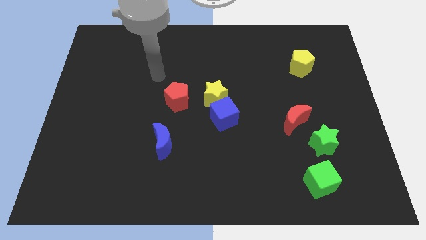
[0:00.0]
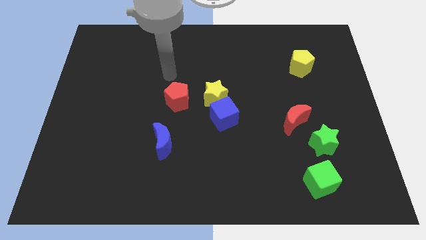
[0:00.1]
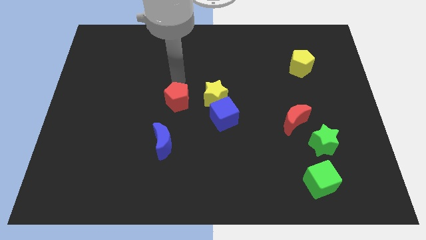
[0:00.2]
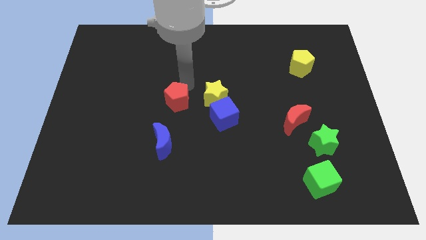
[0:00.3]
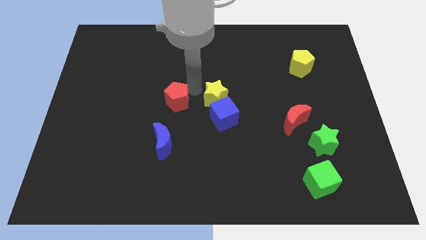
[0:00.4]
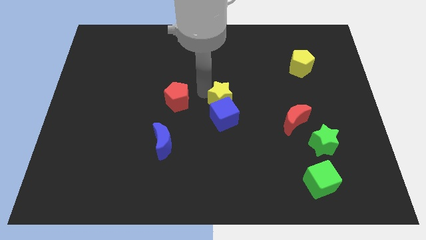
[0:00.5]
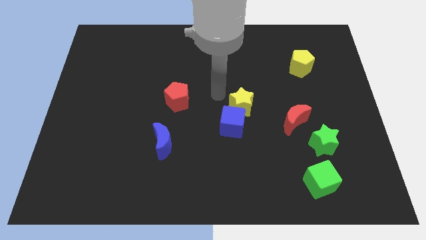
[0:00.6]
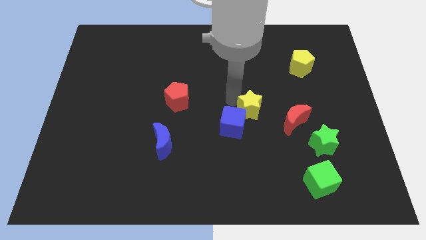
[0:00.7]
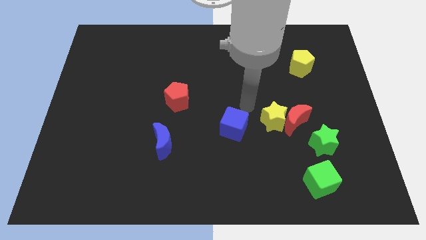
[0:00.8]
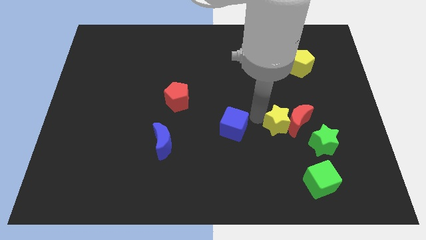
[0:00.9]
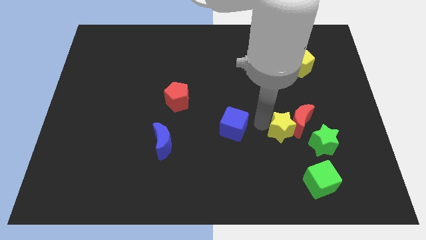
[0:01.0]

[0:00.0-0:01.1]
pull the blue cube apart from the yellow star

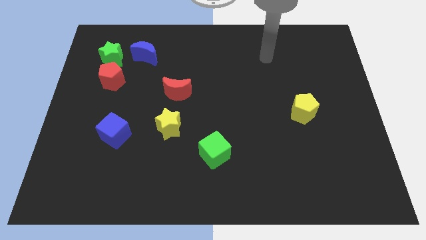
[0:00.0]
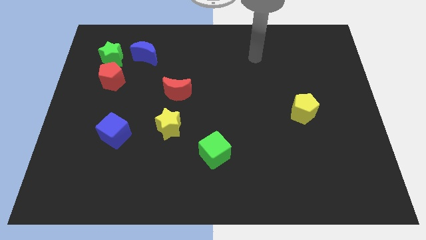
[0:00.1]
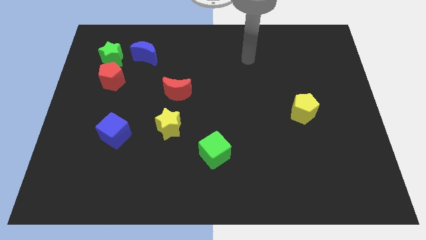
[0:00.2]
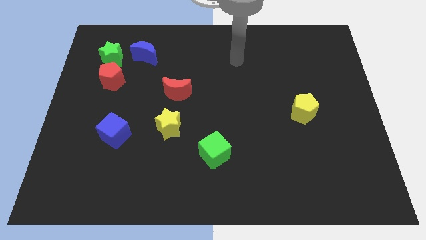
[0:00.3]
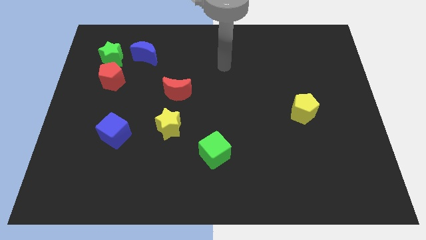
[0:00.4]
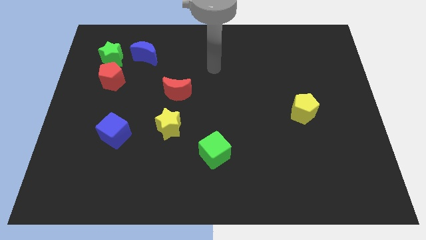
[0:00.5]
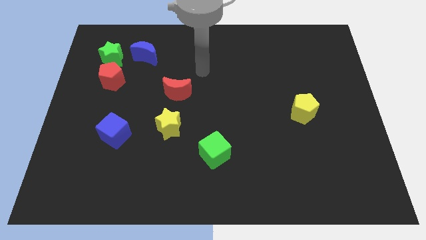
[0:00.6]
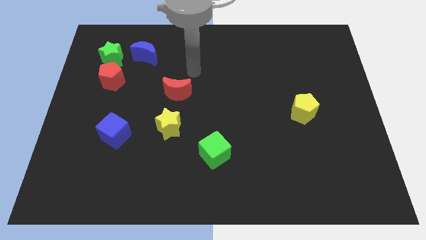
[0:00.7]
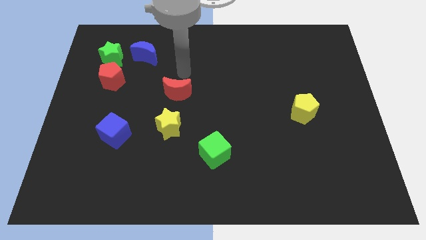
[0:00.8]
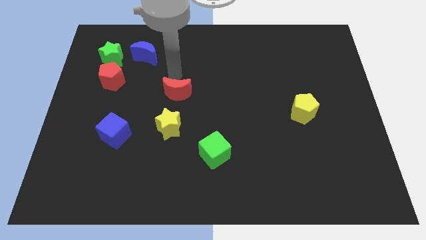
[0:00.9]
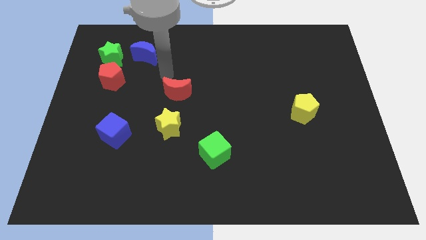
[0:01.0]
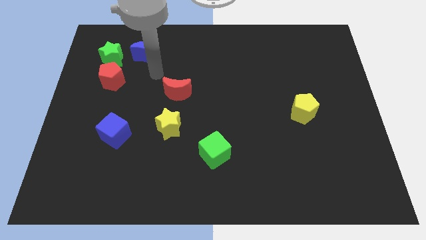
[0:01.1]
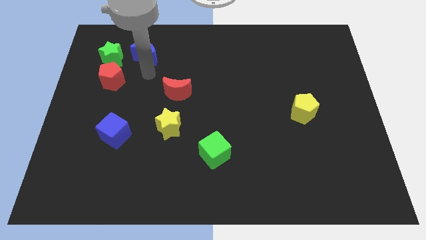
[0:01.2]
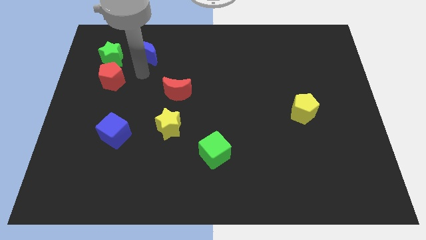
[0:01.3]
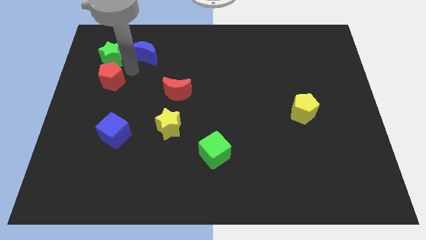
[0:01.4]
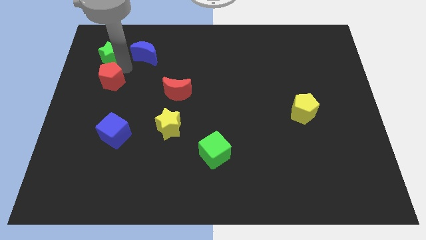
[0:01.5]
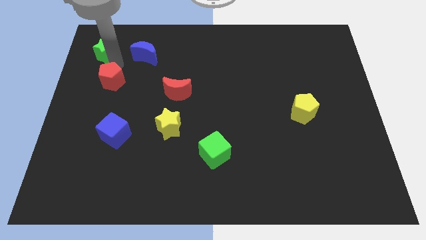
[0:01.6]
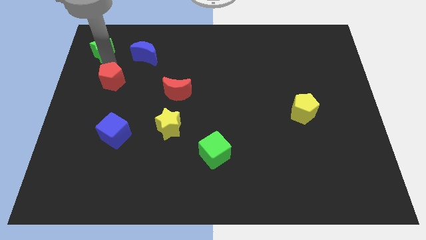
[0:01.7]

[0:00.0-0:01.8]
move the red pentagon away from the green star

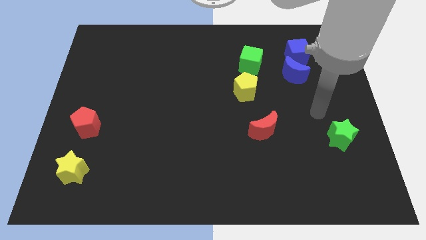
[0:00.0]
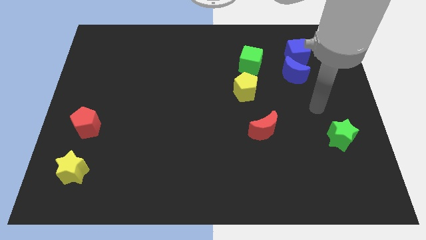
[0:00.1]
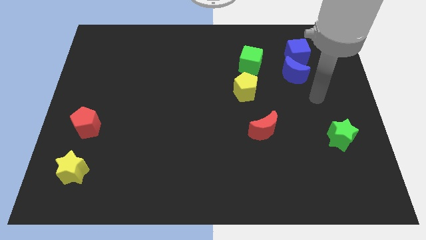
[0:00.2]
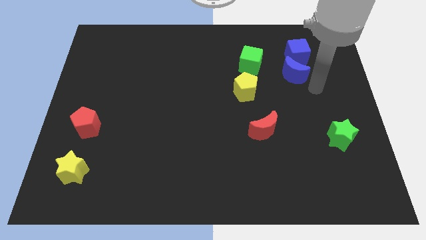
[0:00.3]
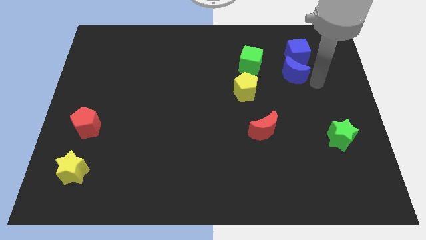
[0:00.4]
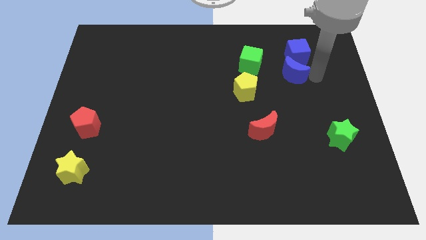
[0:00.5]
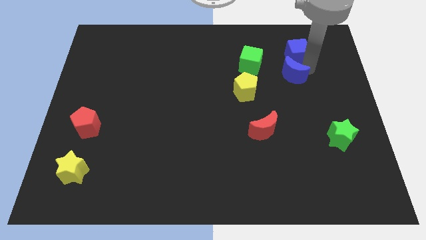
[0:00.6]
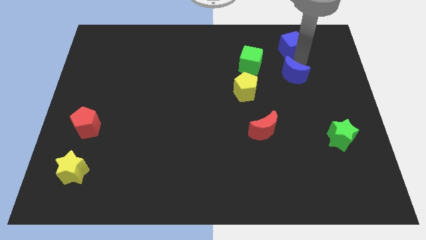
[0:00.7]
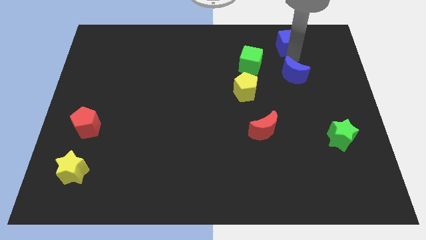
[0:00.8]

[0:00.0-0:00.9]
separate the blue moon from the blue cube

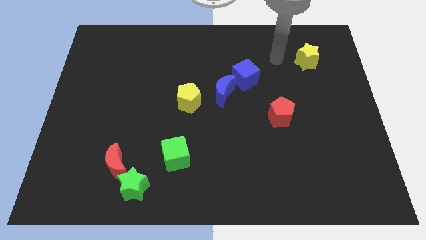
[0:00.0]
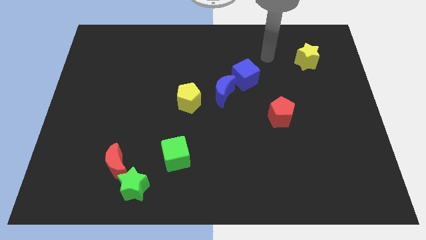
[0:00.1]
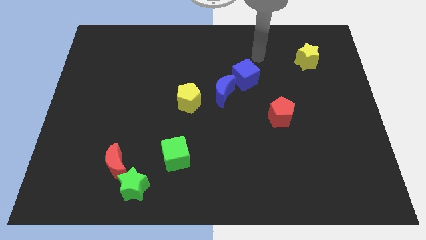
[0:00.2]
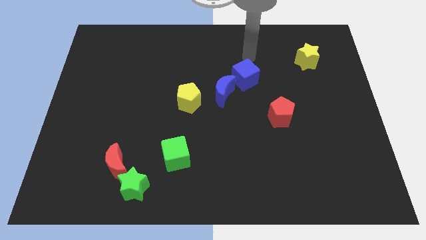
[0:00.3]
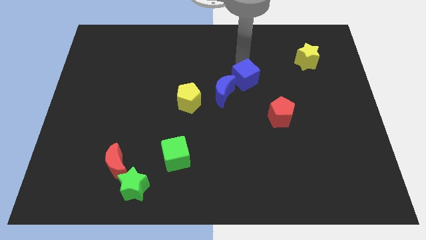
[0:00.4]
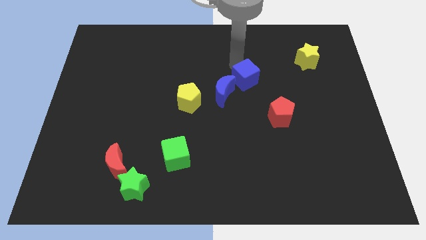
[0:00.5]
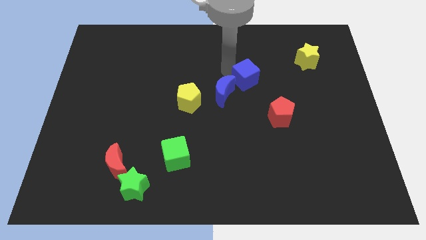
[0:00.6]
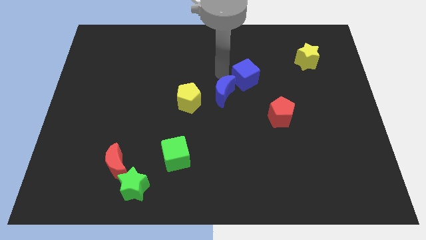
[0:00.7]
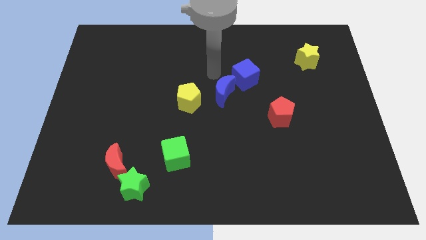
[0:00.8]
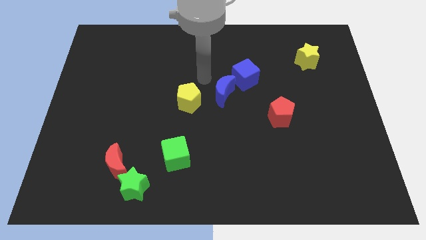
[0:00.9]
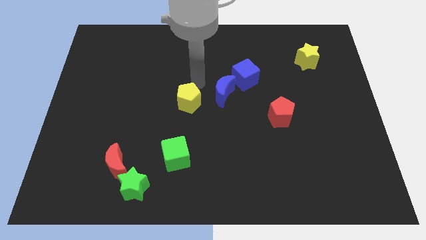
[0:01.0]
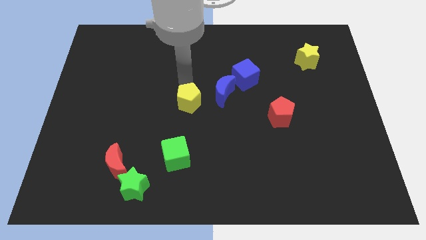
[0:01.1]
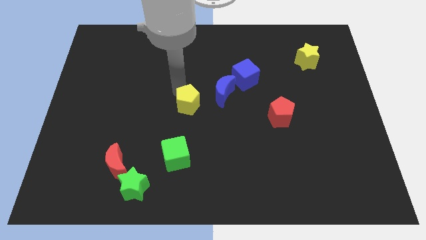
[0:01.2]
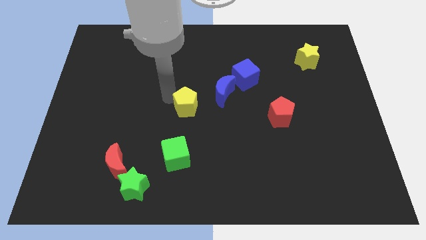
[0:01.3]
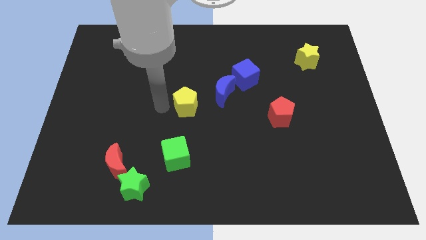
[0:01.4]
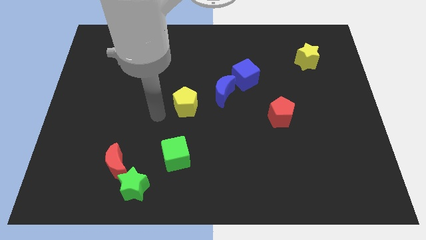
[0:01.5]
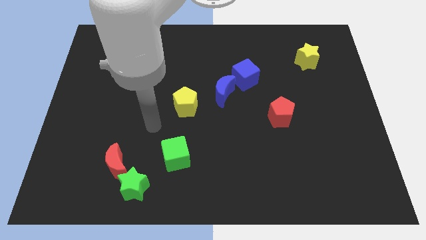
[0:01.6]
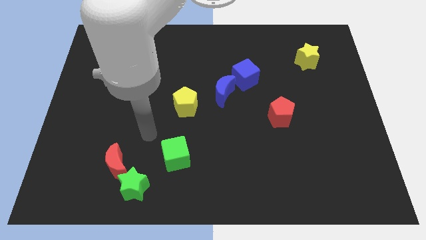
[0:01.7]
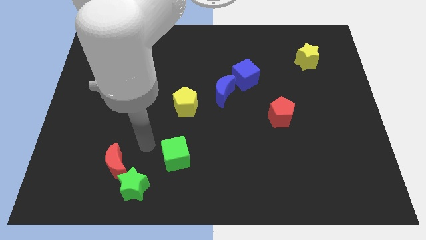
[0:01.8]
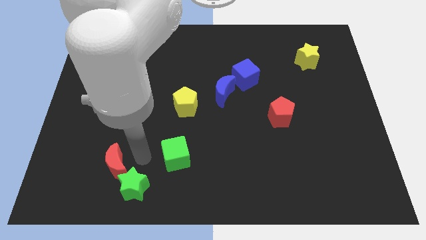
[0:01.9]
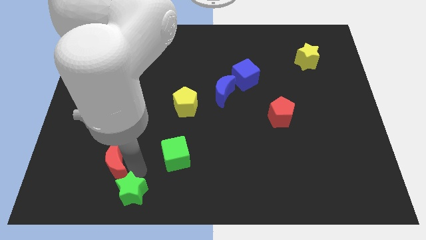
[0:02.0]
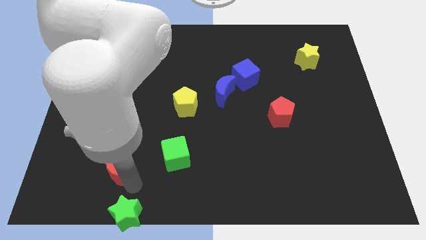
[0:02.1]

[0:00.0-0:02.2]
separate the red moon from the green star

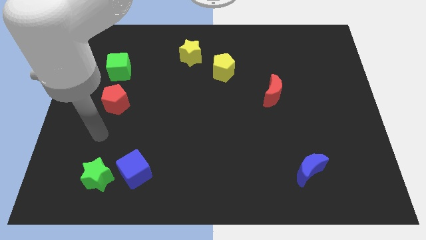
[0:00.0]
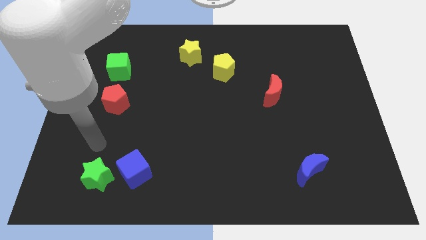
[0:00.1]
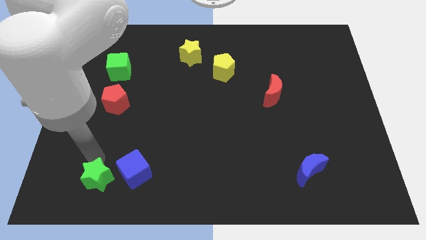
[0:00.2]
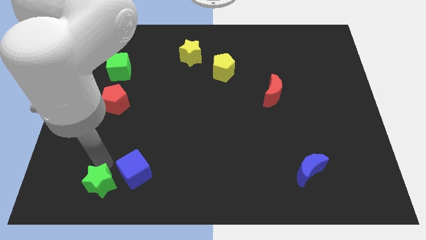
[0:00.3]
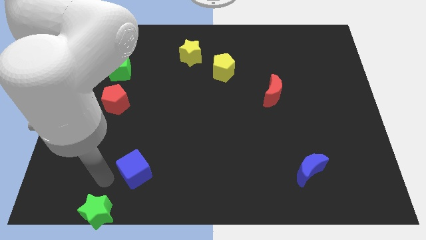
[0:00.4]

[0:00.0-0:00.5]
move the blue cube away from the green star

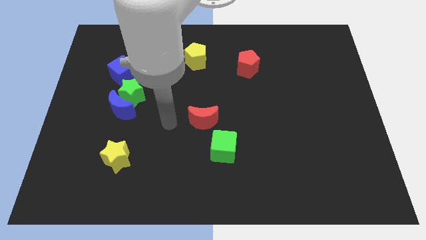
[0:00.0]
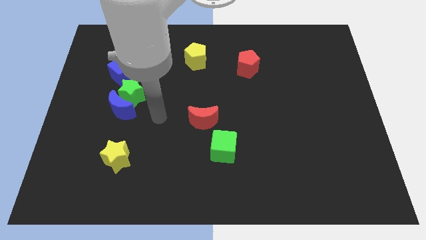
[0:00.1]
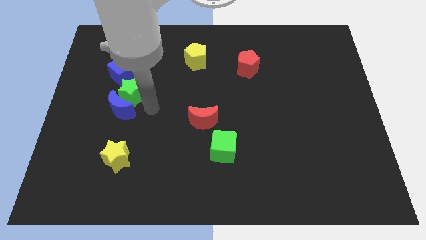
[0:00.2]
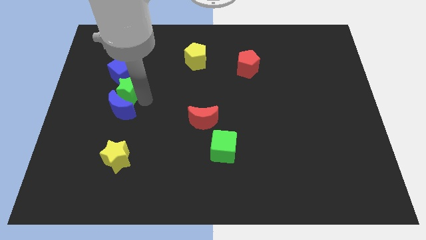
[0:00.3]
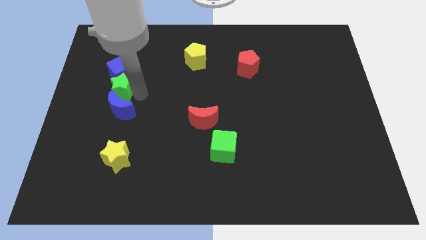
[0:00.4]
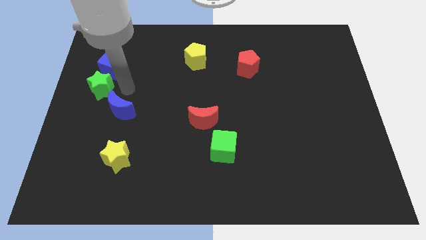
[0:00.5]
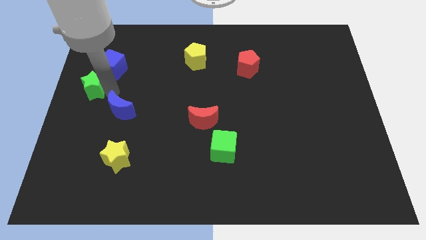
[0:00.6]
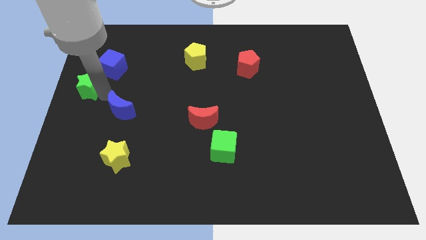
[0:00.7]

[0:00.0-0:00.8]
separate the blue moon from the green star

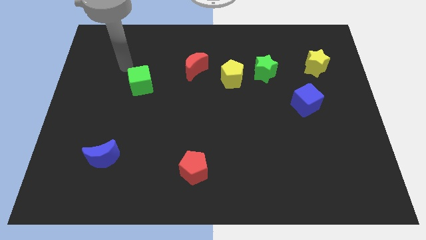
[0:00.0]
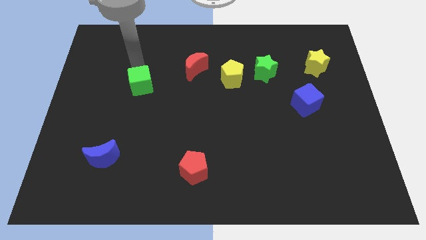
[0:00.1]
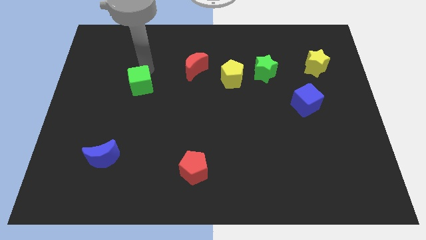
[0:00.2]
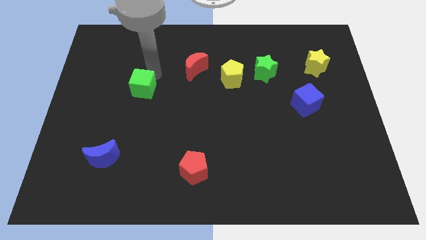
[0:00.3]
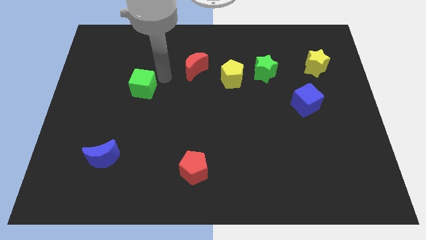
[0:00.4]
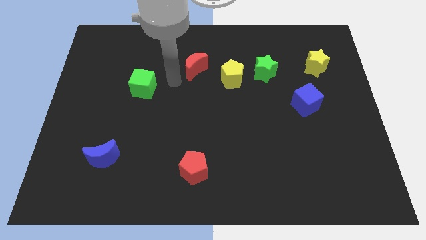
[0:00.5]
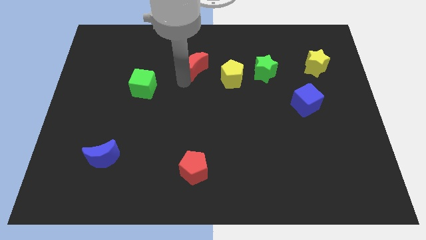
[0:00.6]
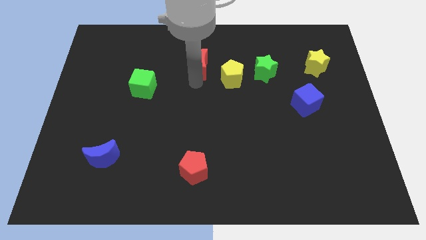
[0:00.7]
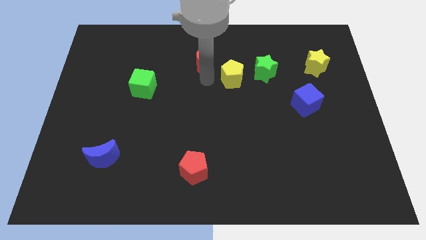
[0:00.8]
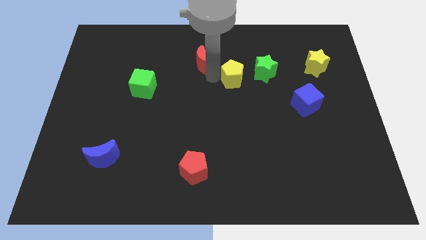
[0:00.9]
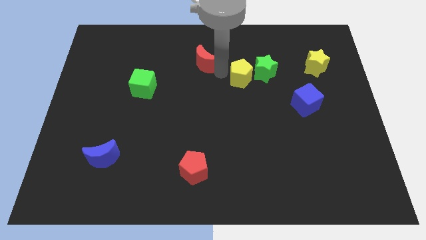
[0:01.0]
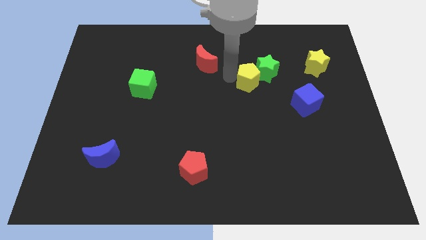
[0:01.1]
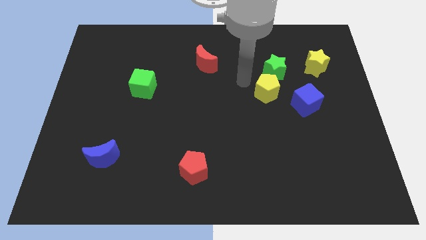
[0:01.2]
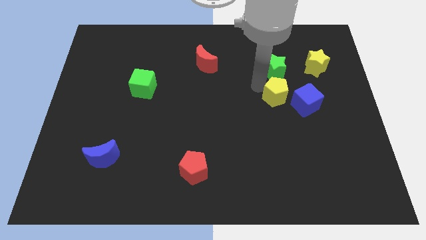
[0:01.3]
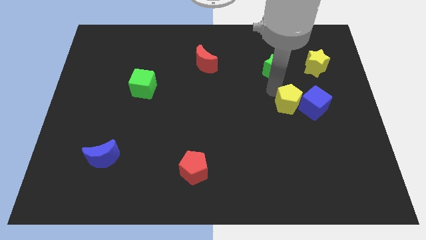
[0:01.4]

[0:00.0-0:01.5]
pull the green star apart from the yellow pentagon

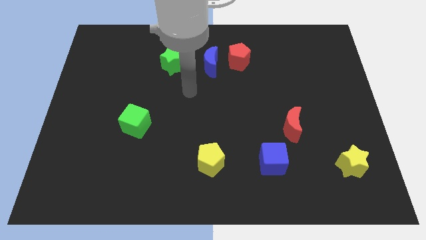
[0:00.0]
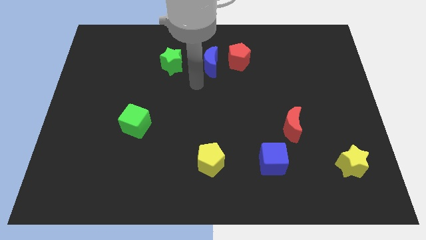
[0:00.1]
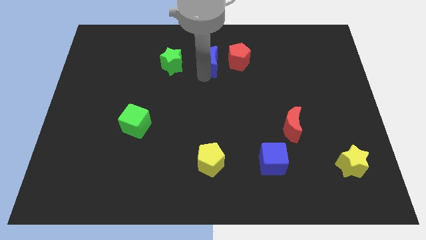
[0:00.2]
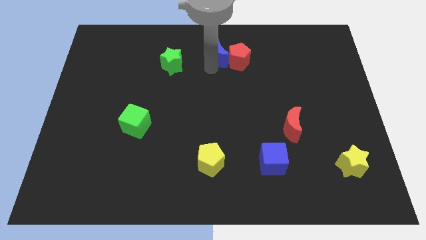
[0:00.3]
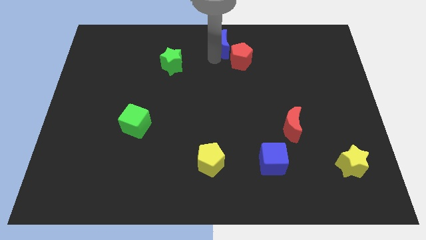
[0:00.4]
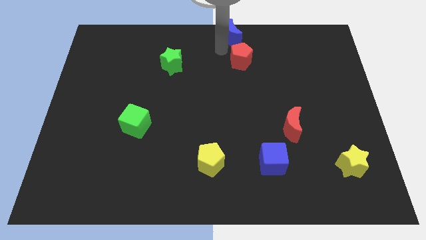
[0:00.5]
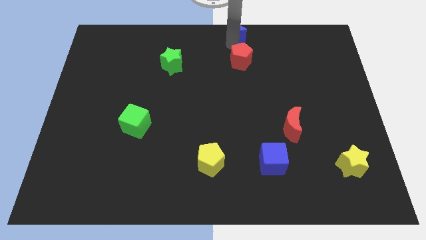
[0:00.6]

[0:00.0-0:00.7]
pull the red pentagon apart from the blue moon
